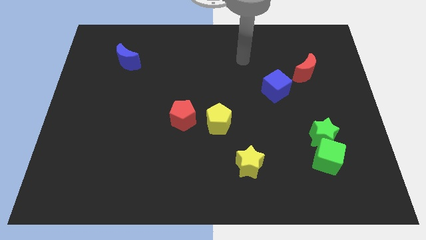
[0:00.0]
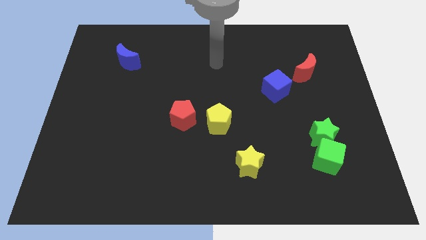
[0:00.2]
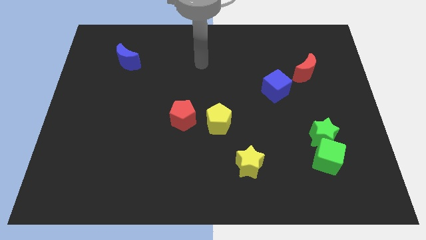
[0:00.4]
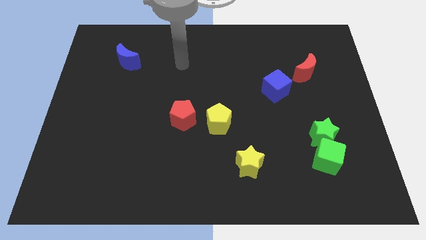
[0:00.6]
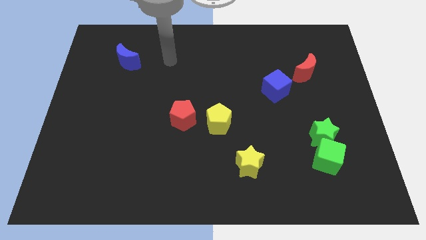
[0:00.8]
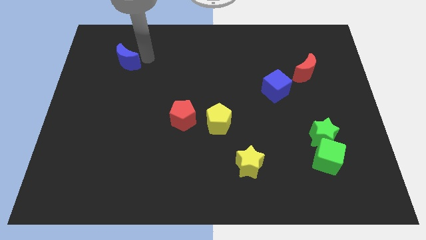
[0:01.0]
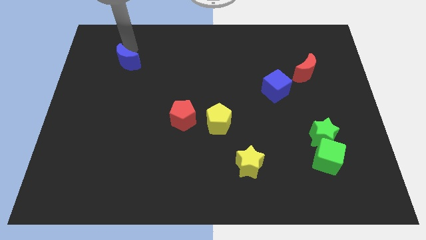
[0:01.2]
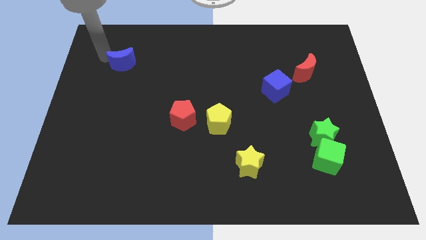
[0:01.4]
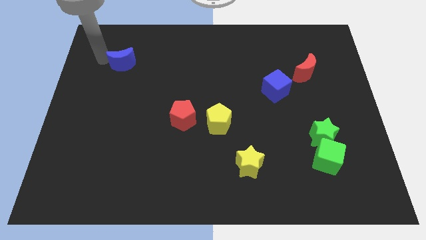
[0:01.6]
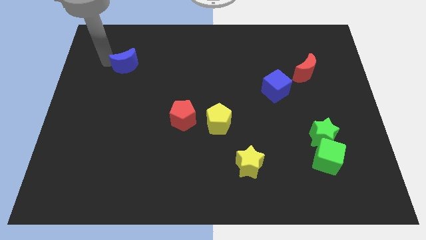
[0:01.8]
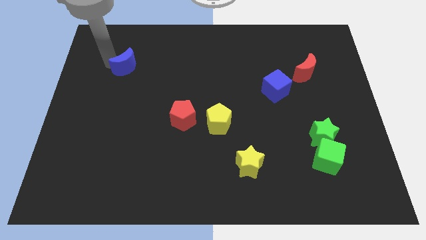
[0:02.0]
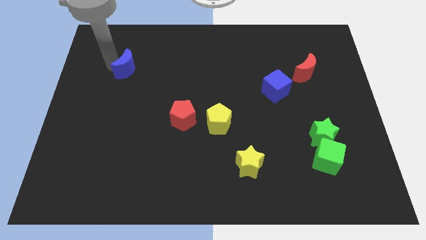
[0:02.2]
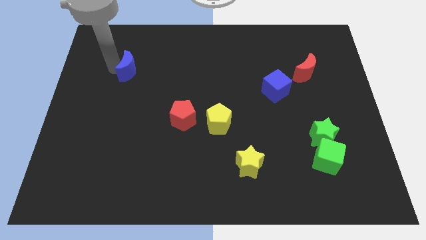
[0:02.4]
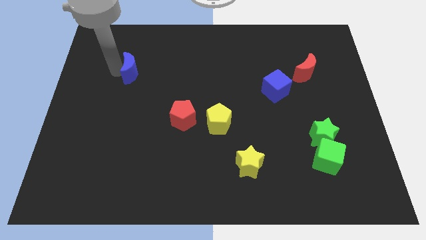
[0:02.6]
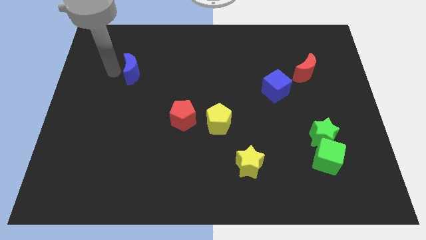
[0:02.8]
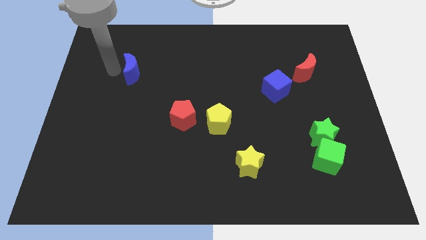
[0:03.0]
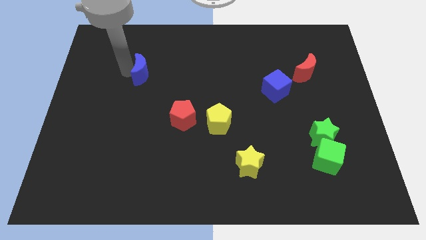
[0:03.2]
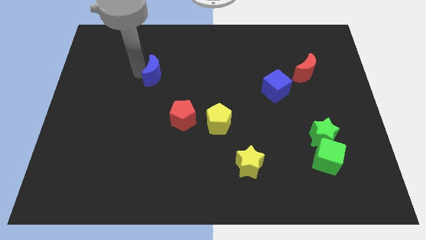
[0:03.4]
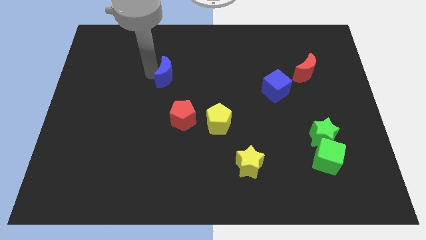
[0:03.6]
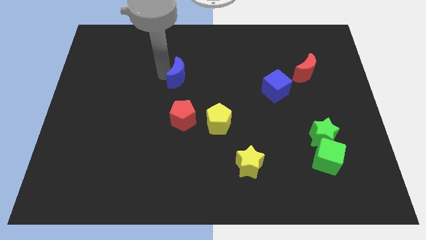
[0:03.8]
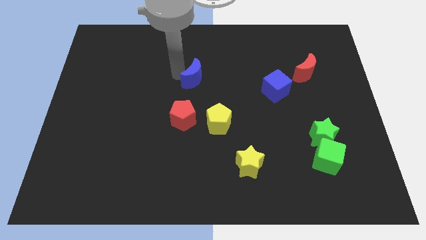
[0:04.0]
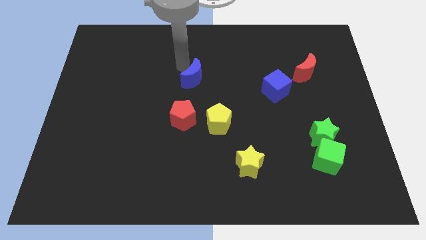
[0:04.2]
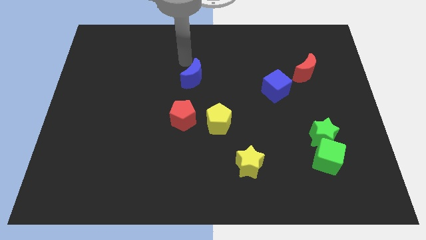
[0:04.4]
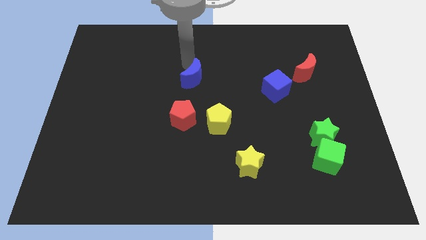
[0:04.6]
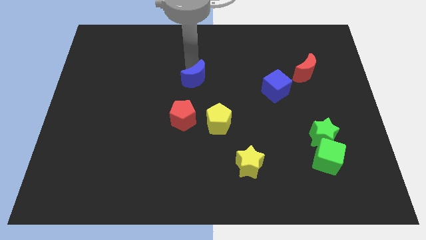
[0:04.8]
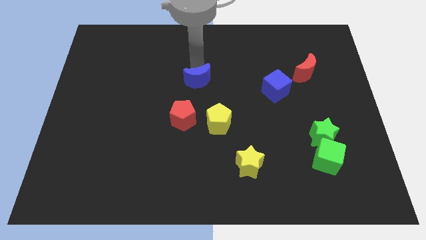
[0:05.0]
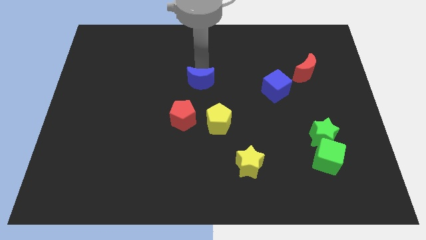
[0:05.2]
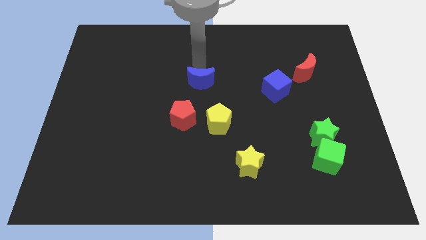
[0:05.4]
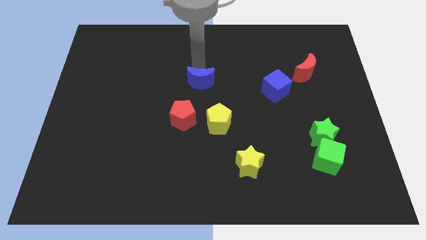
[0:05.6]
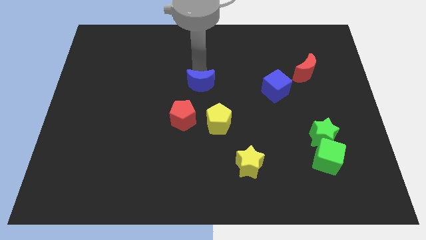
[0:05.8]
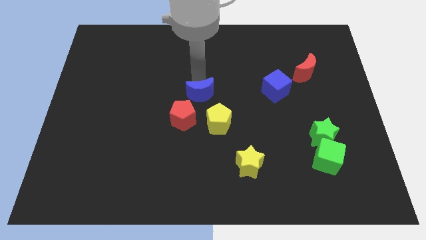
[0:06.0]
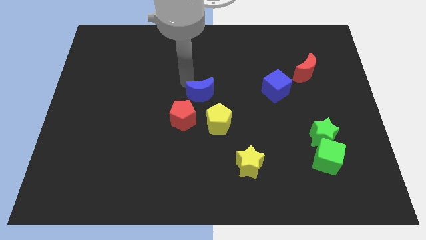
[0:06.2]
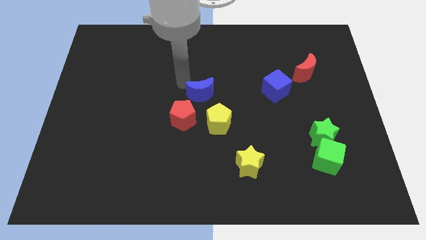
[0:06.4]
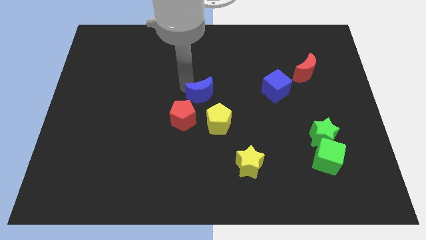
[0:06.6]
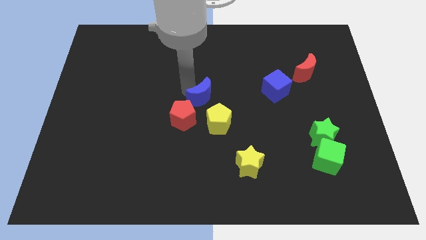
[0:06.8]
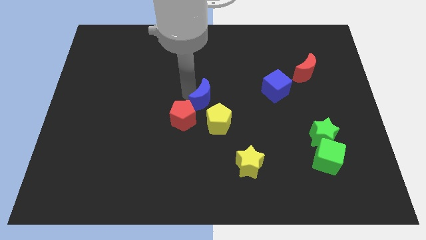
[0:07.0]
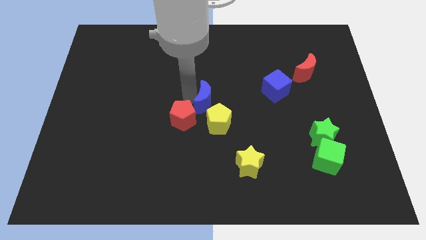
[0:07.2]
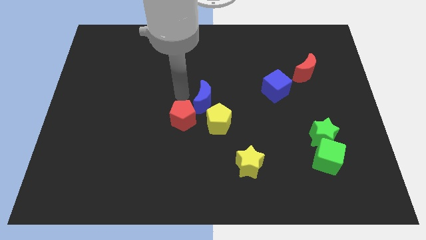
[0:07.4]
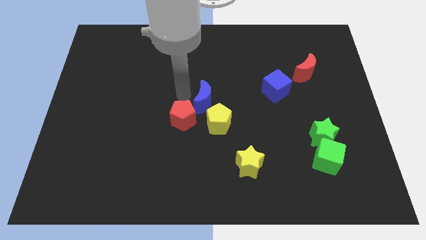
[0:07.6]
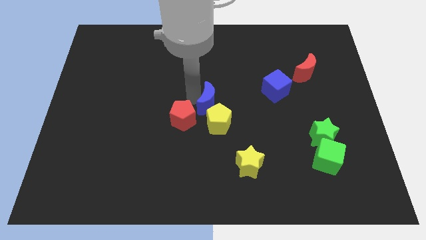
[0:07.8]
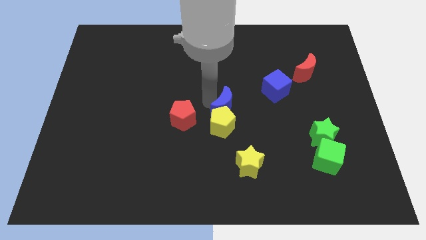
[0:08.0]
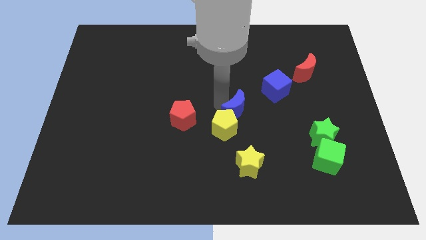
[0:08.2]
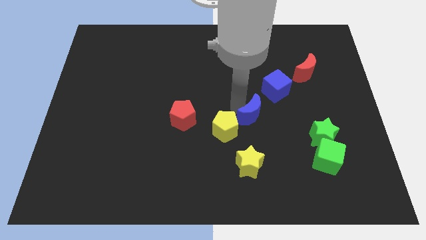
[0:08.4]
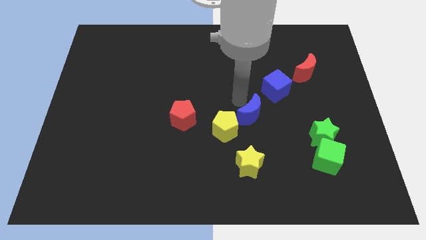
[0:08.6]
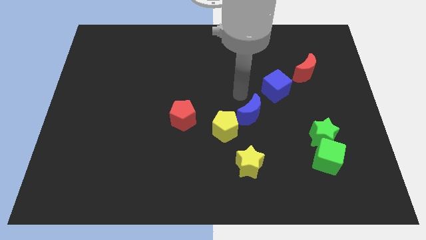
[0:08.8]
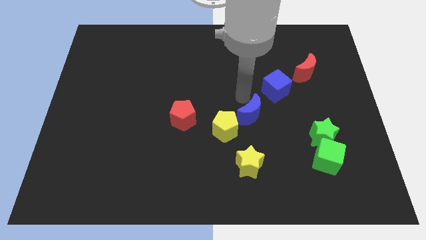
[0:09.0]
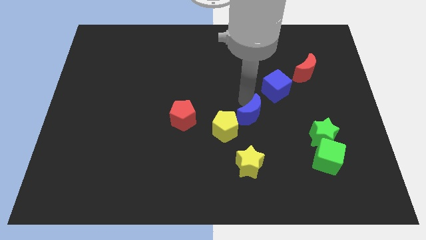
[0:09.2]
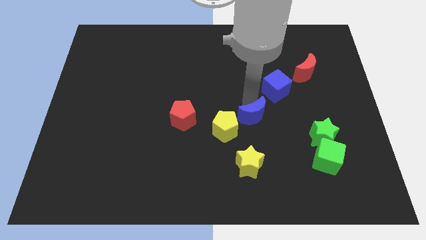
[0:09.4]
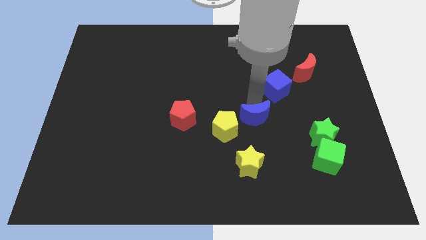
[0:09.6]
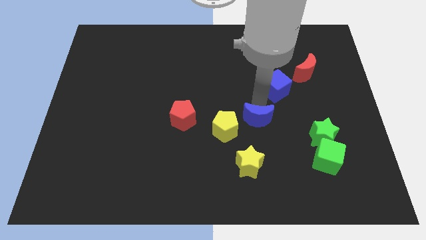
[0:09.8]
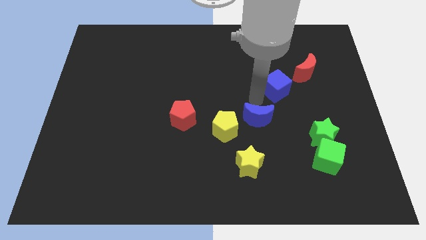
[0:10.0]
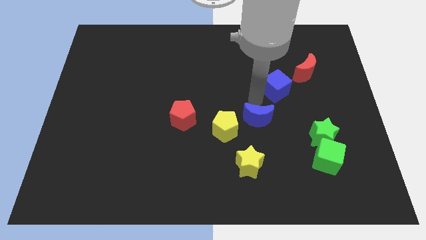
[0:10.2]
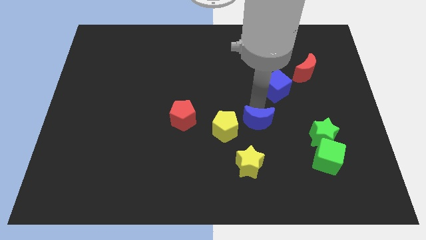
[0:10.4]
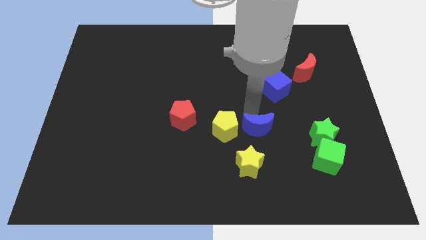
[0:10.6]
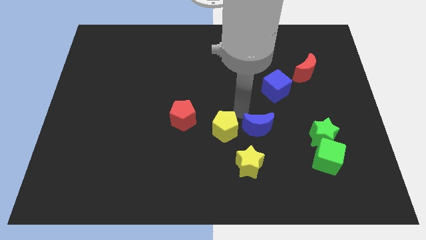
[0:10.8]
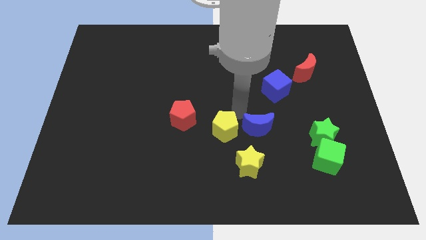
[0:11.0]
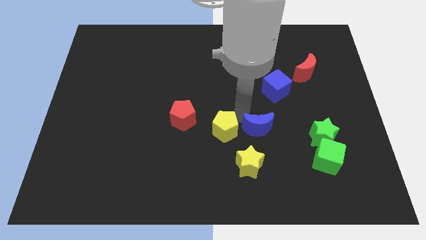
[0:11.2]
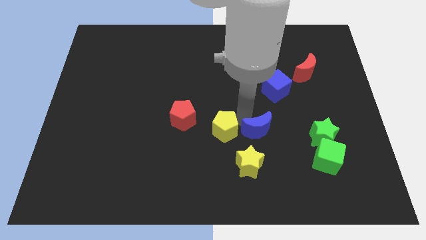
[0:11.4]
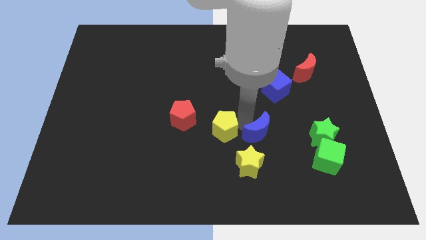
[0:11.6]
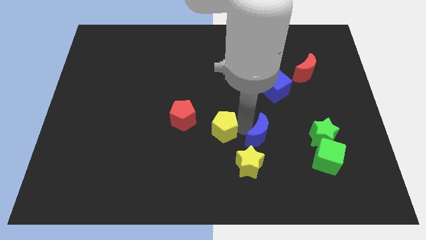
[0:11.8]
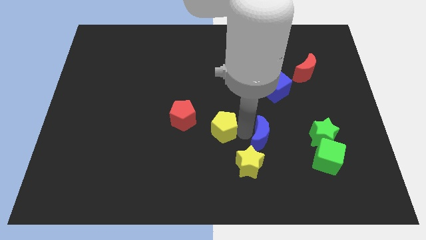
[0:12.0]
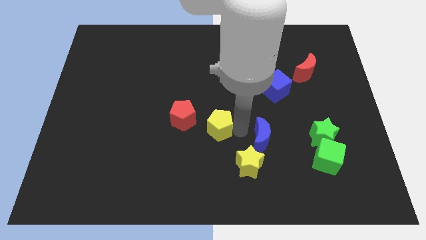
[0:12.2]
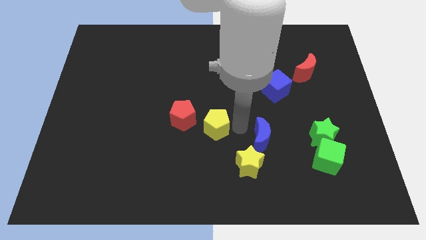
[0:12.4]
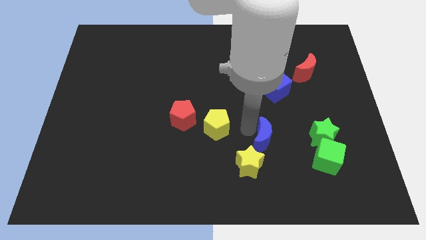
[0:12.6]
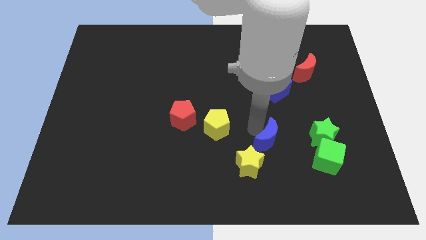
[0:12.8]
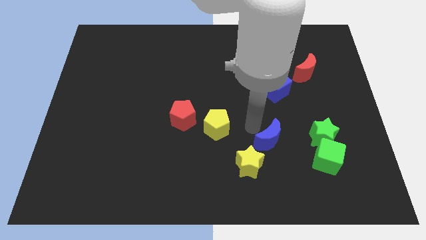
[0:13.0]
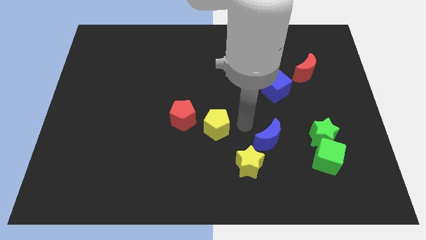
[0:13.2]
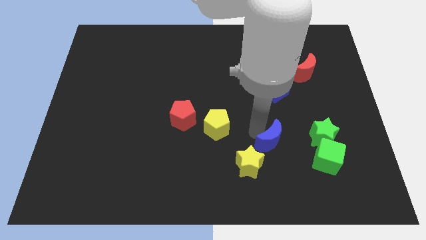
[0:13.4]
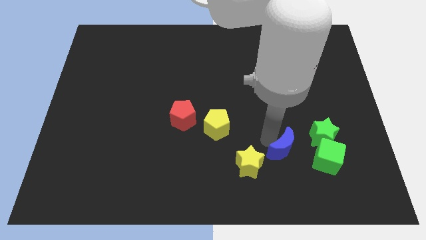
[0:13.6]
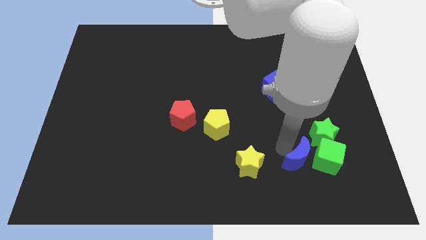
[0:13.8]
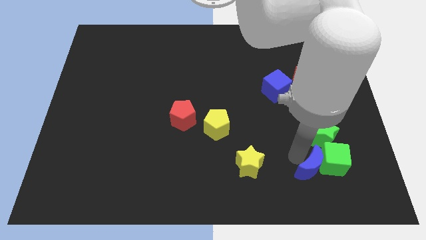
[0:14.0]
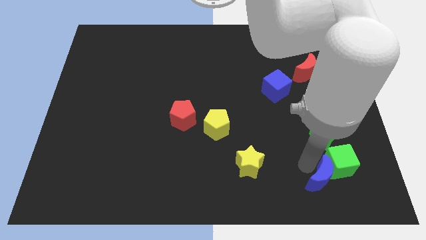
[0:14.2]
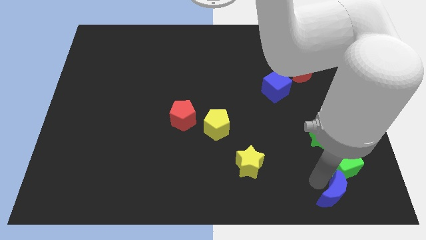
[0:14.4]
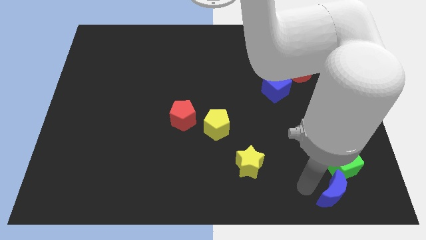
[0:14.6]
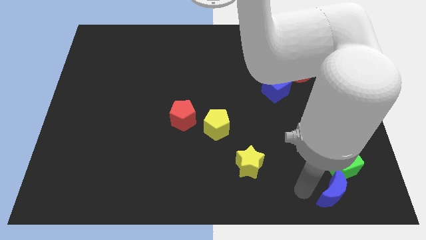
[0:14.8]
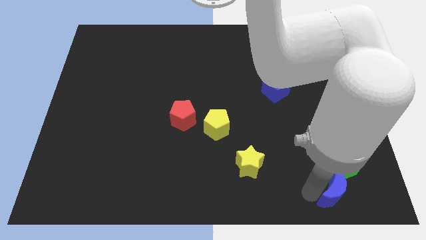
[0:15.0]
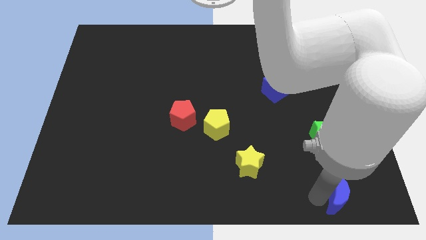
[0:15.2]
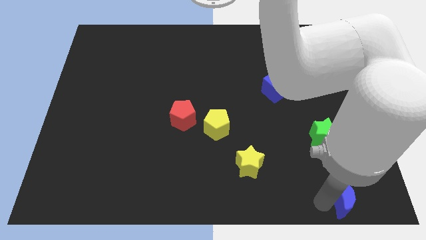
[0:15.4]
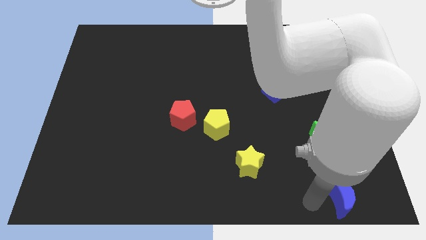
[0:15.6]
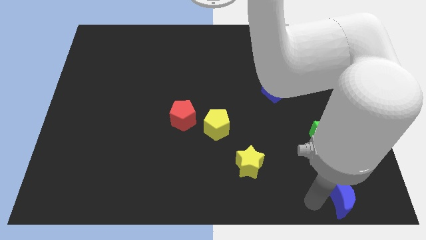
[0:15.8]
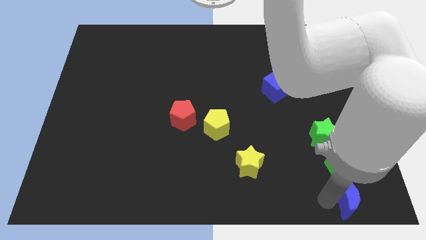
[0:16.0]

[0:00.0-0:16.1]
push the blue moon to the bottom right of the board
